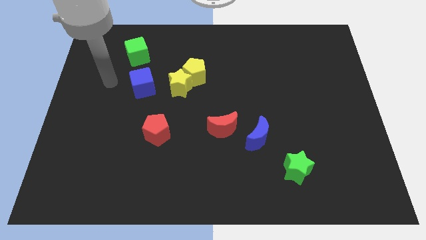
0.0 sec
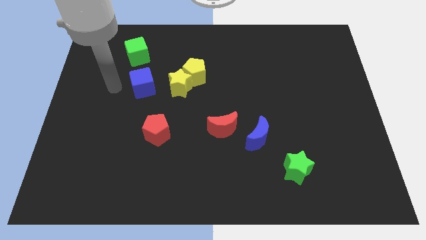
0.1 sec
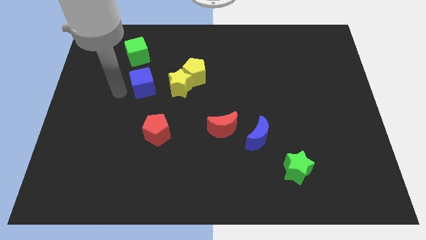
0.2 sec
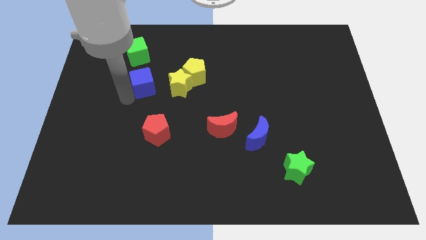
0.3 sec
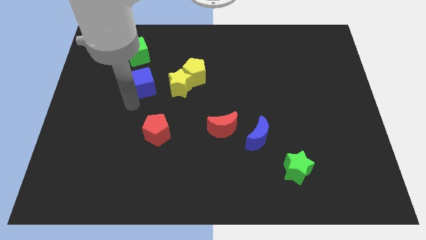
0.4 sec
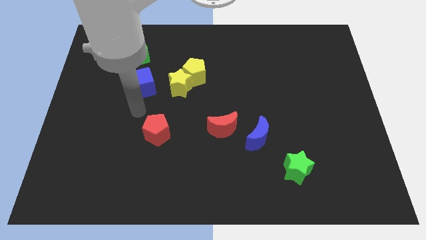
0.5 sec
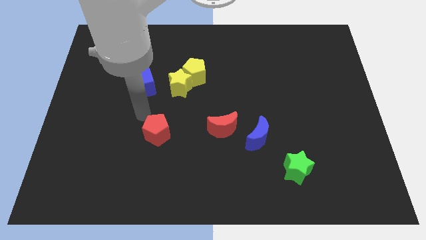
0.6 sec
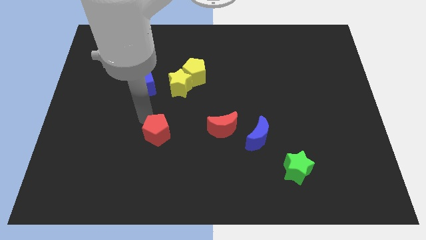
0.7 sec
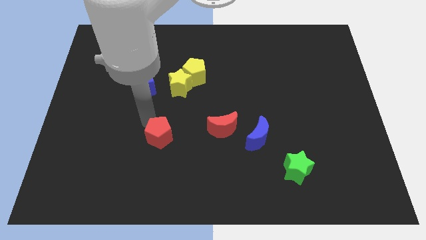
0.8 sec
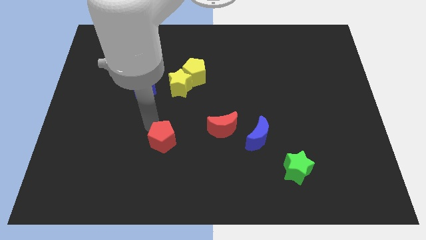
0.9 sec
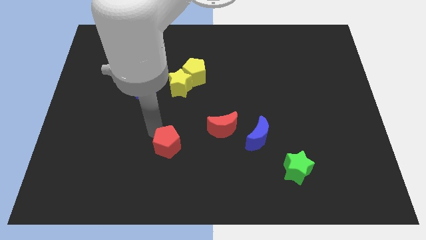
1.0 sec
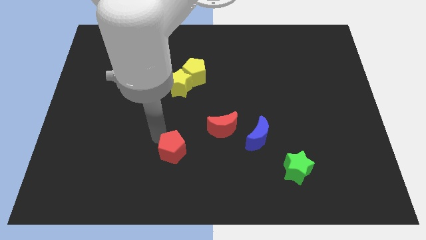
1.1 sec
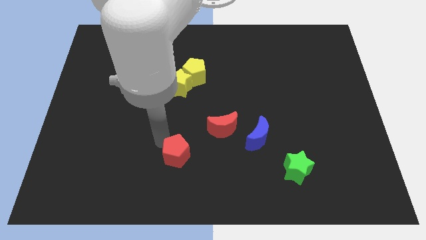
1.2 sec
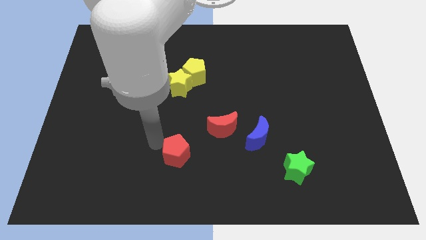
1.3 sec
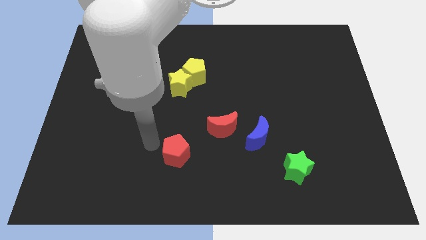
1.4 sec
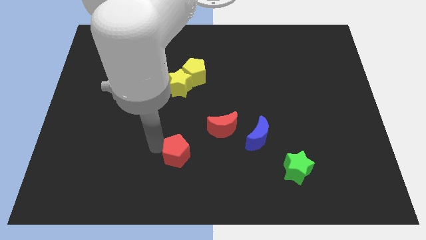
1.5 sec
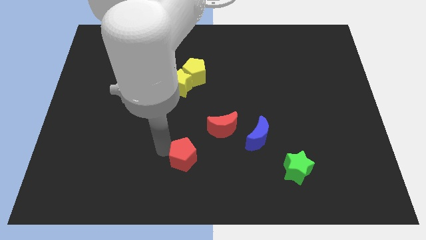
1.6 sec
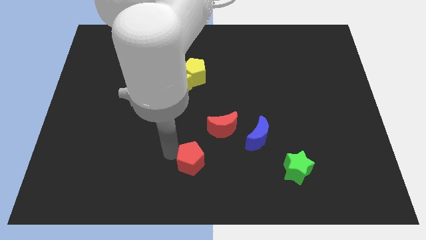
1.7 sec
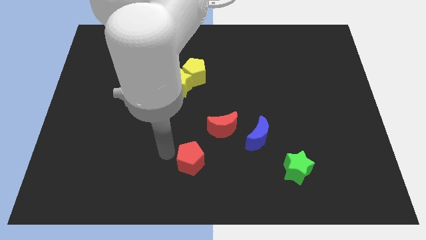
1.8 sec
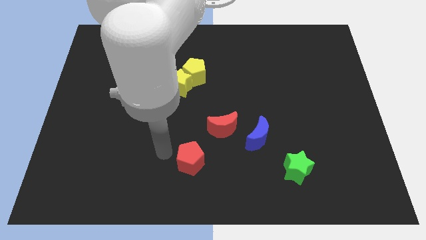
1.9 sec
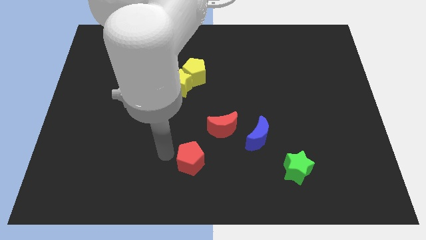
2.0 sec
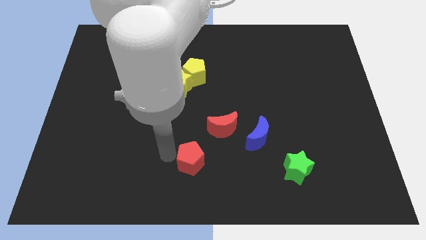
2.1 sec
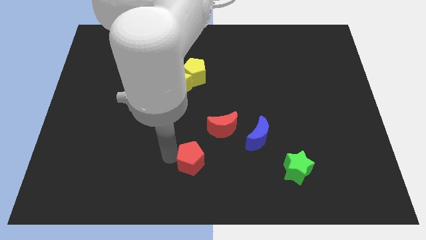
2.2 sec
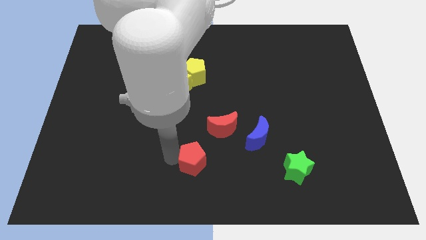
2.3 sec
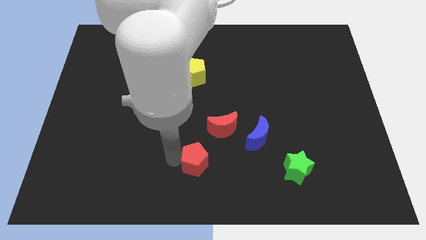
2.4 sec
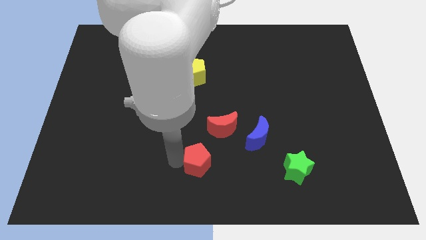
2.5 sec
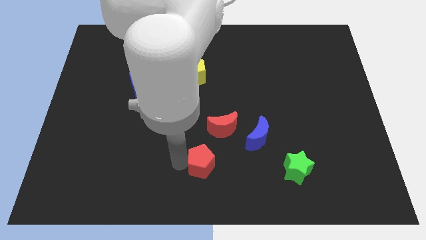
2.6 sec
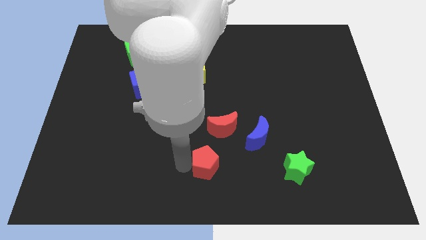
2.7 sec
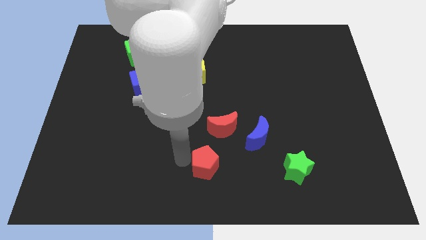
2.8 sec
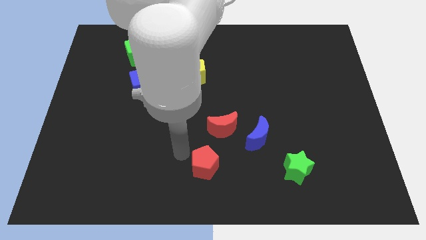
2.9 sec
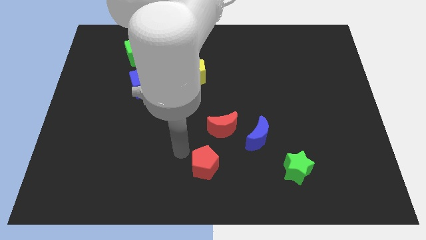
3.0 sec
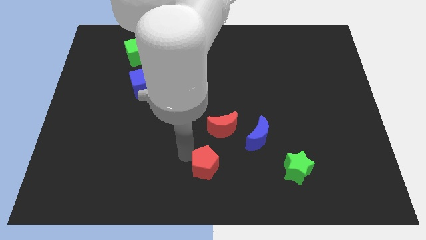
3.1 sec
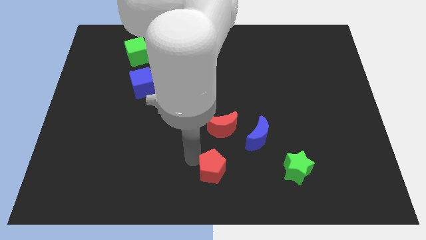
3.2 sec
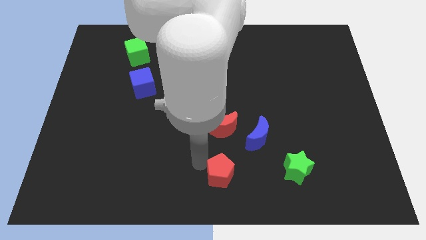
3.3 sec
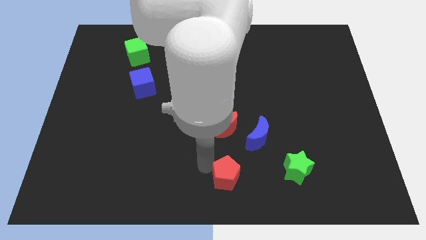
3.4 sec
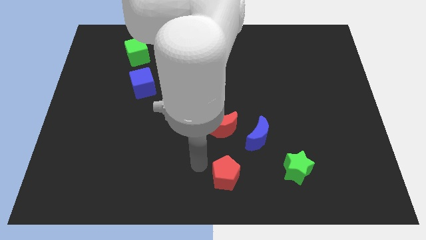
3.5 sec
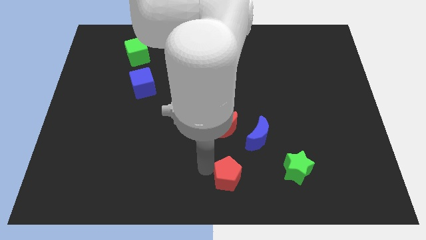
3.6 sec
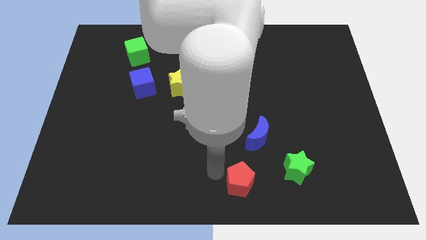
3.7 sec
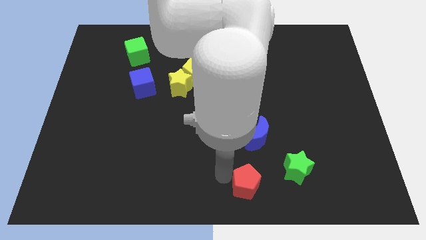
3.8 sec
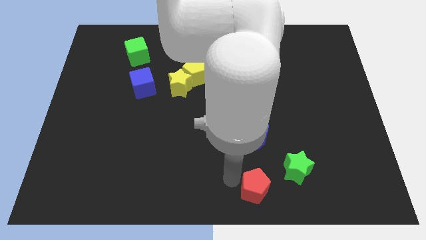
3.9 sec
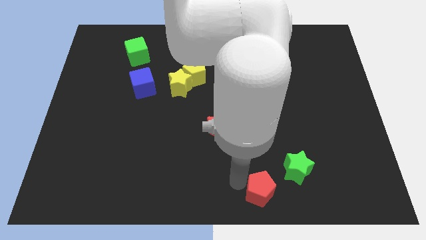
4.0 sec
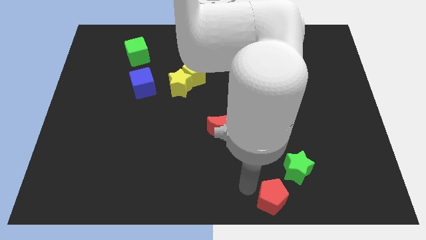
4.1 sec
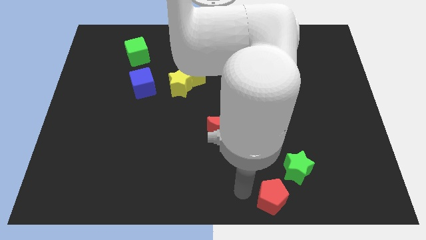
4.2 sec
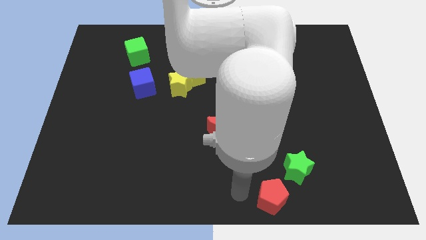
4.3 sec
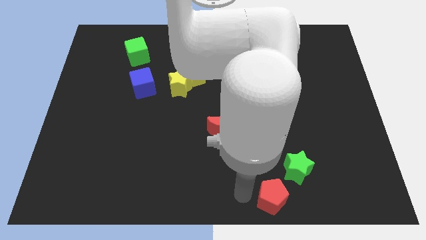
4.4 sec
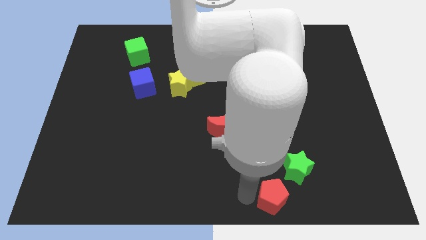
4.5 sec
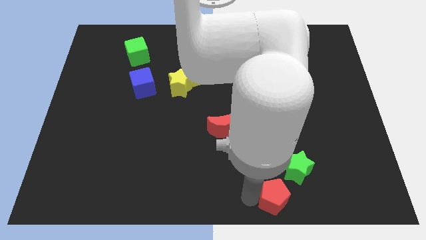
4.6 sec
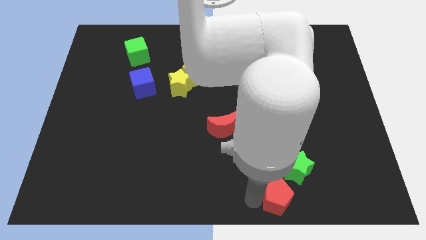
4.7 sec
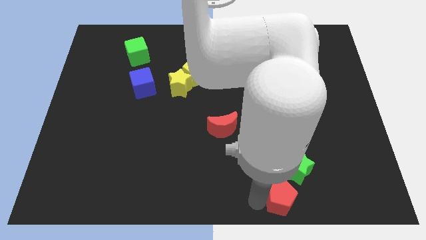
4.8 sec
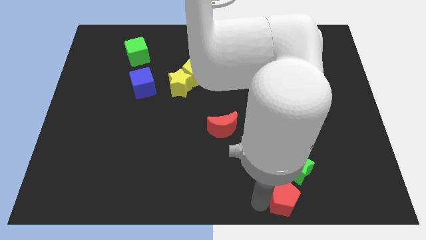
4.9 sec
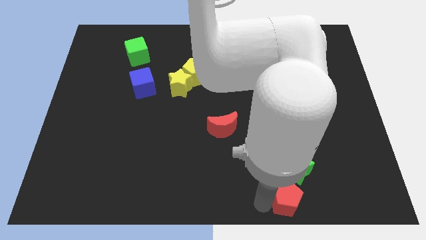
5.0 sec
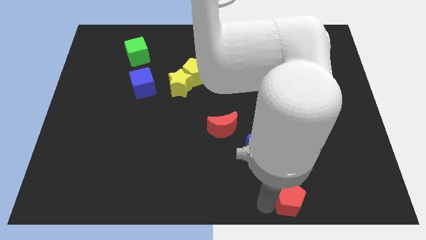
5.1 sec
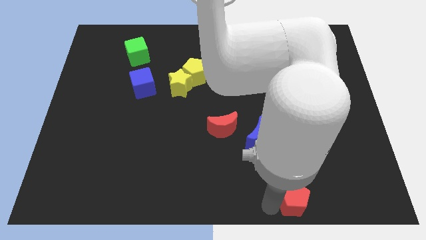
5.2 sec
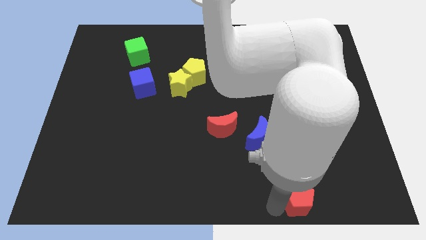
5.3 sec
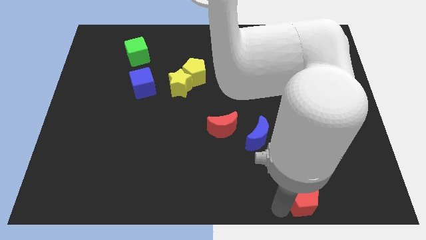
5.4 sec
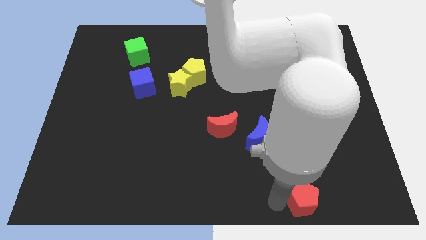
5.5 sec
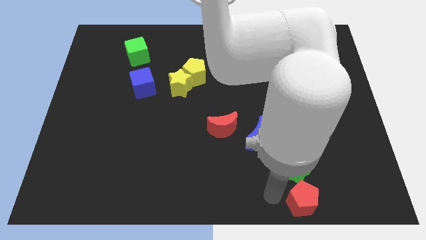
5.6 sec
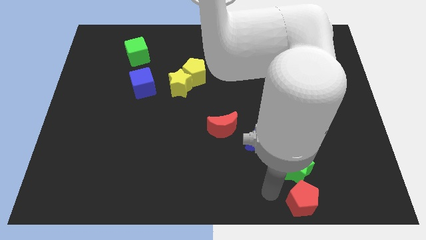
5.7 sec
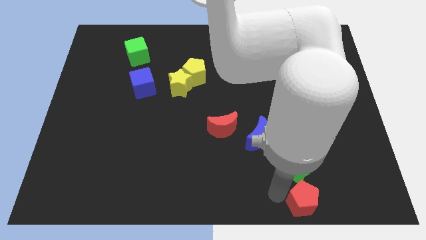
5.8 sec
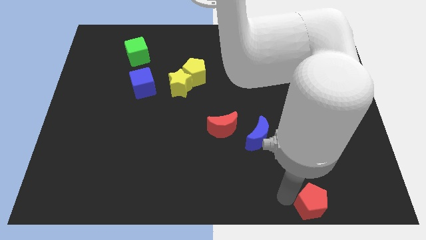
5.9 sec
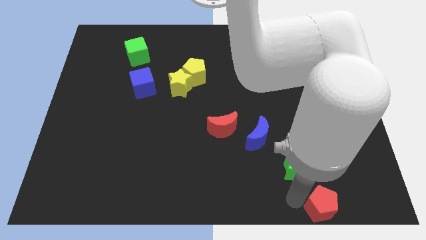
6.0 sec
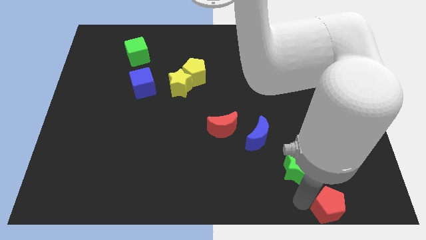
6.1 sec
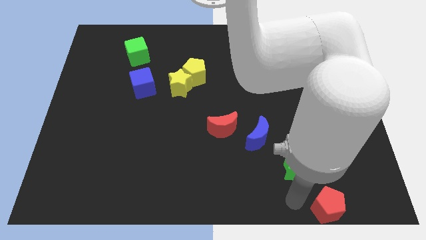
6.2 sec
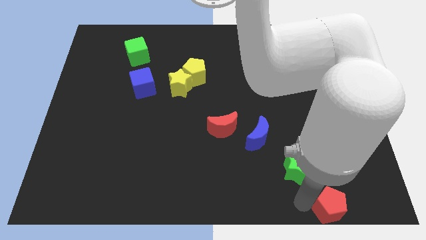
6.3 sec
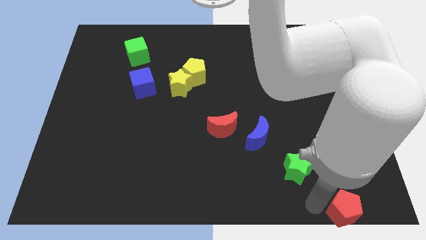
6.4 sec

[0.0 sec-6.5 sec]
slide the red pentagon to the bottom right
